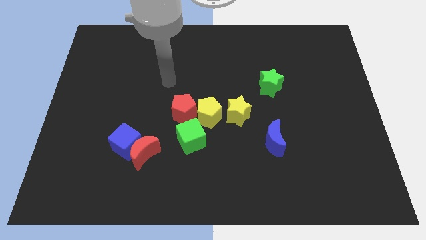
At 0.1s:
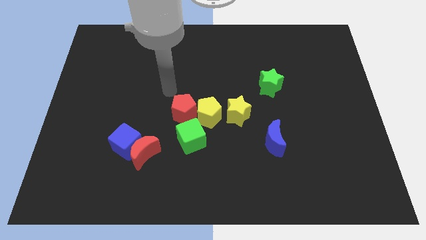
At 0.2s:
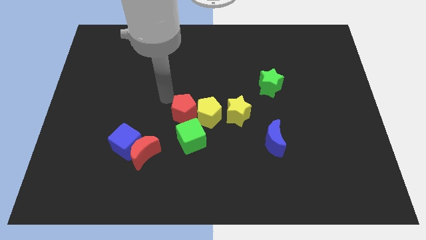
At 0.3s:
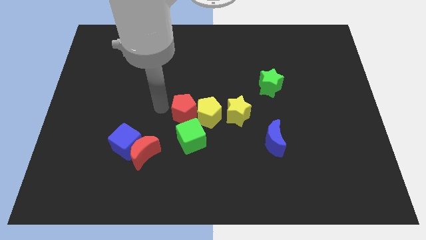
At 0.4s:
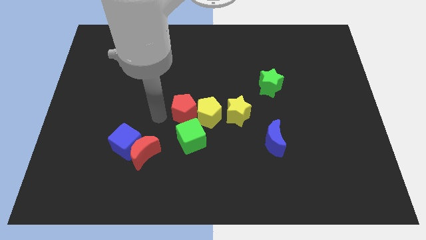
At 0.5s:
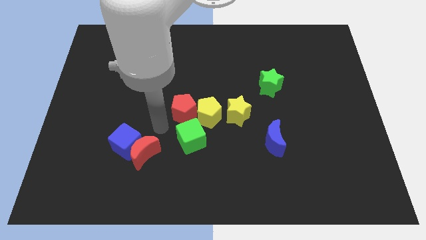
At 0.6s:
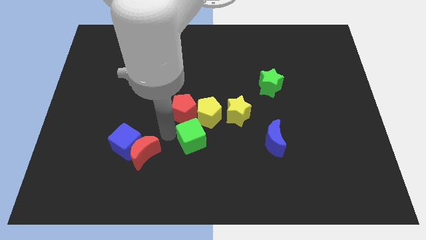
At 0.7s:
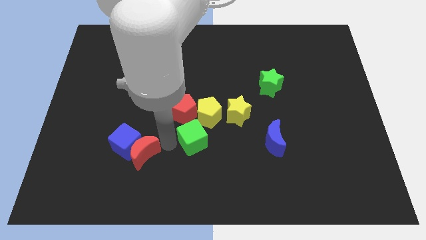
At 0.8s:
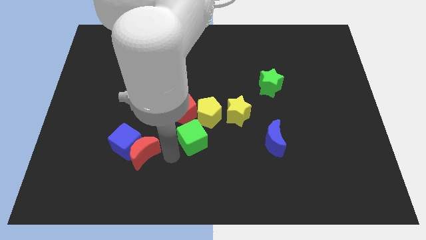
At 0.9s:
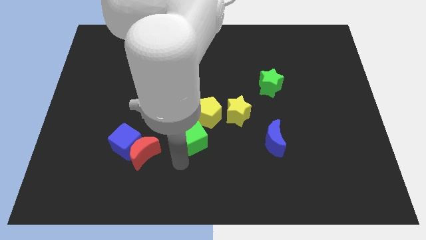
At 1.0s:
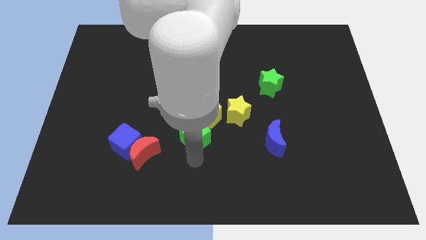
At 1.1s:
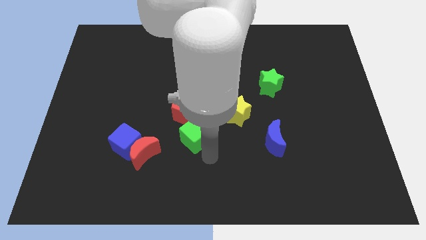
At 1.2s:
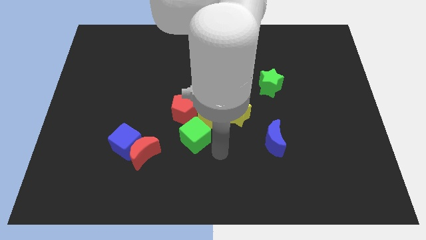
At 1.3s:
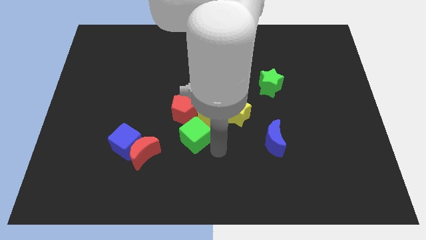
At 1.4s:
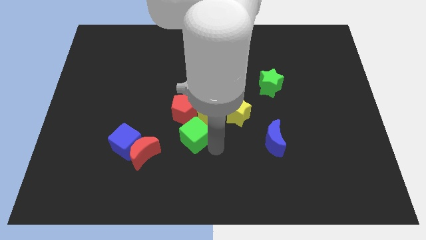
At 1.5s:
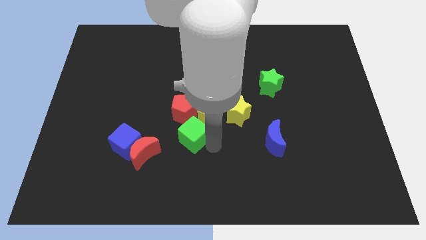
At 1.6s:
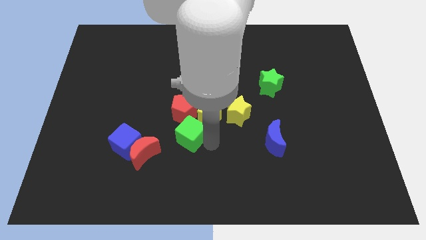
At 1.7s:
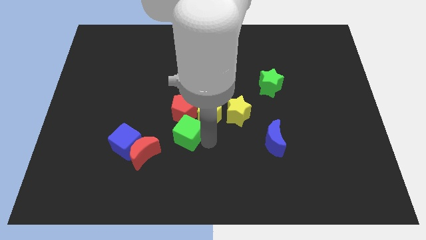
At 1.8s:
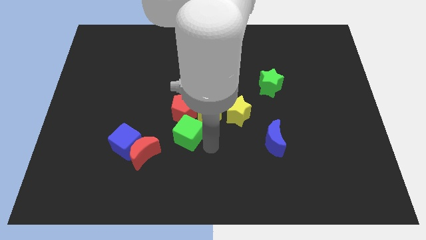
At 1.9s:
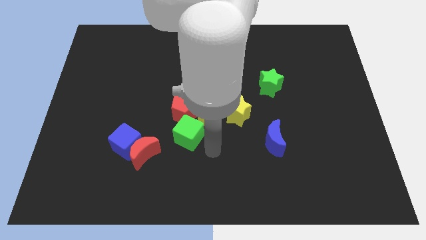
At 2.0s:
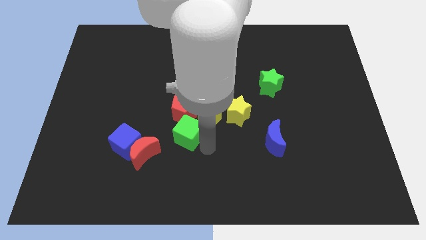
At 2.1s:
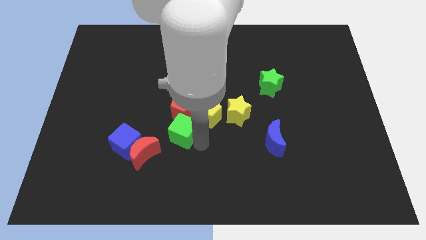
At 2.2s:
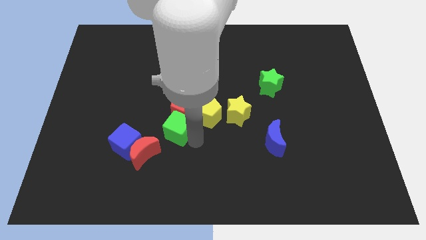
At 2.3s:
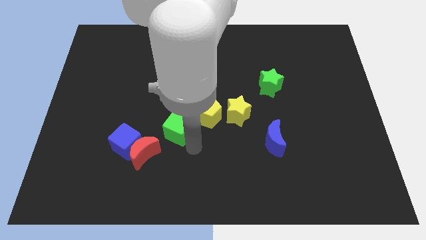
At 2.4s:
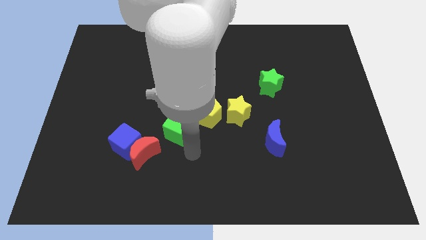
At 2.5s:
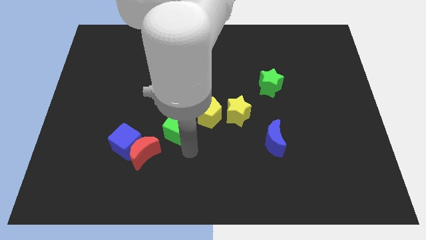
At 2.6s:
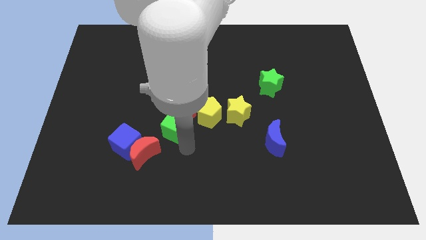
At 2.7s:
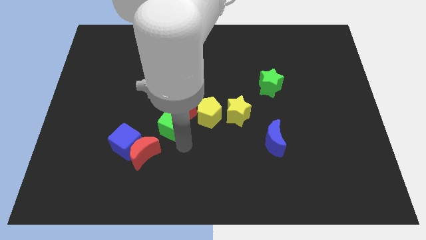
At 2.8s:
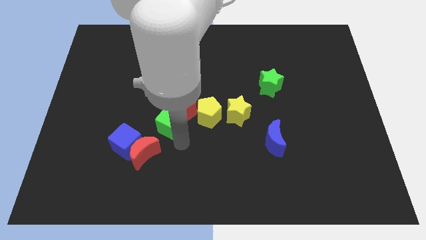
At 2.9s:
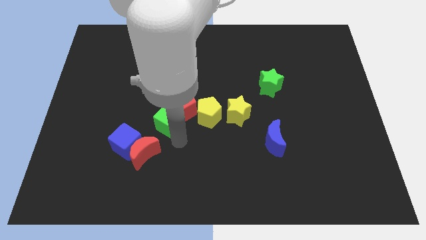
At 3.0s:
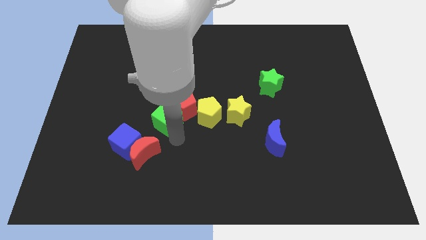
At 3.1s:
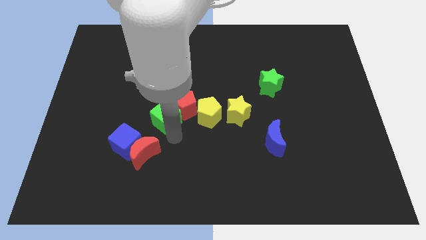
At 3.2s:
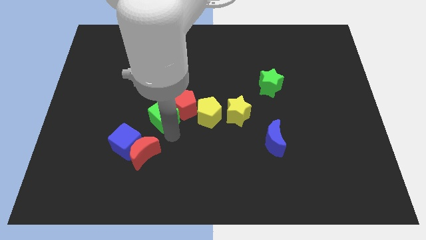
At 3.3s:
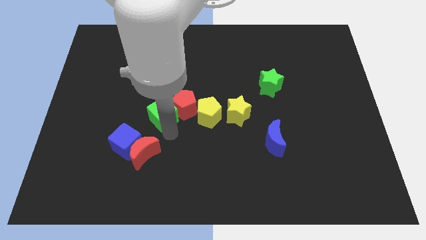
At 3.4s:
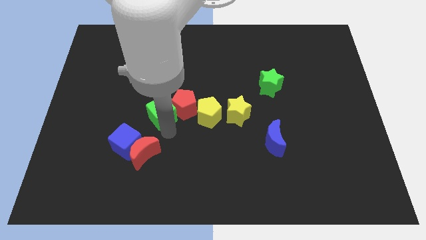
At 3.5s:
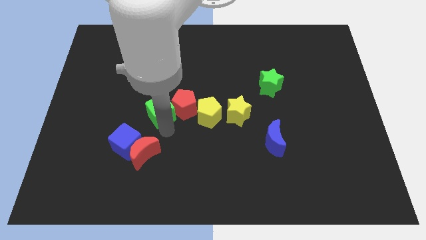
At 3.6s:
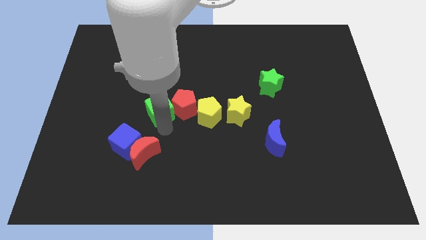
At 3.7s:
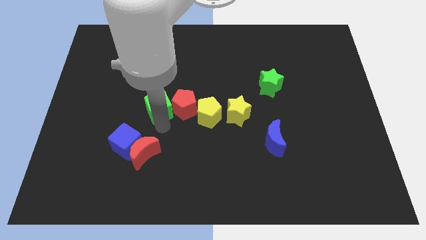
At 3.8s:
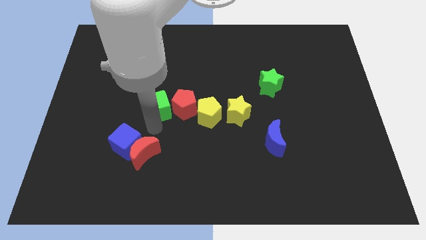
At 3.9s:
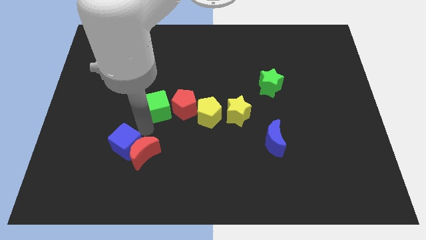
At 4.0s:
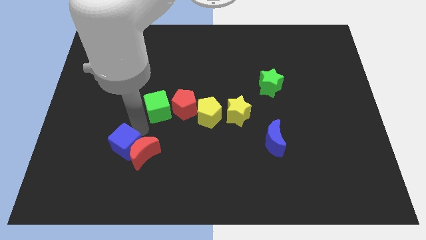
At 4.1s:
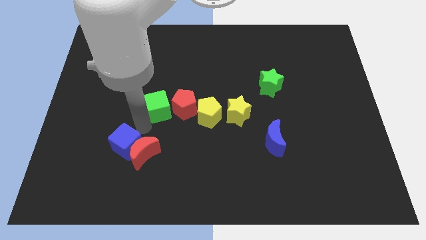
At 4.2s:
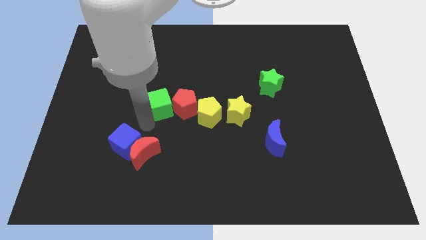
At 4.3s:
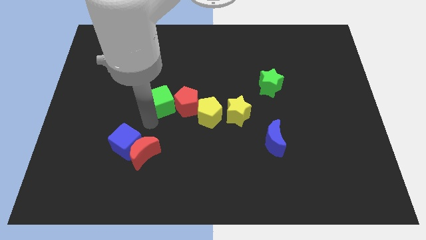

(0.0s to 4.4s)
move the green cube up somewhat

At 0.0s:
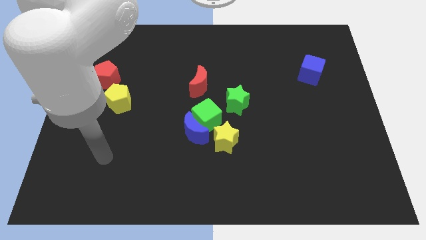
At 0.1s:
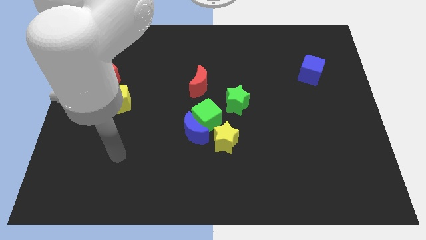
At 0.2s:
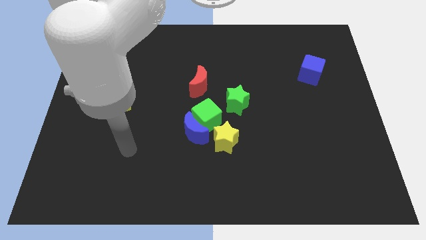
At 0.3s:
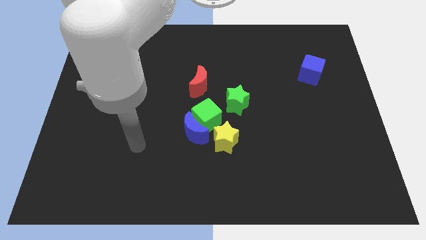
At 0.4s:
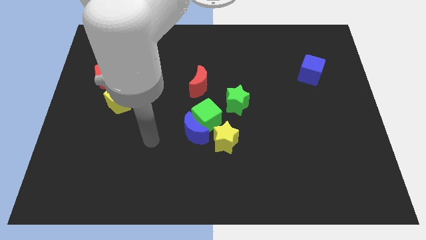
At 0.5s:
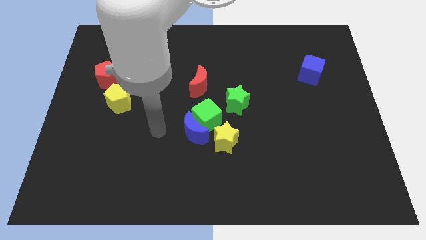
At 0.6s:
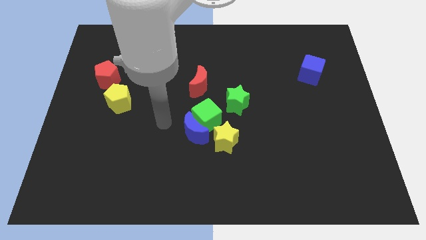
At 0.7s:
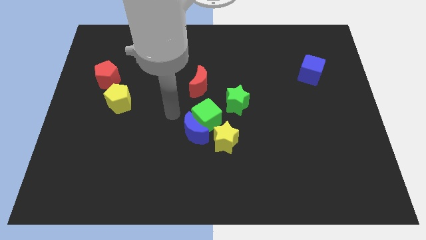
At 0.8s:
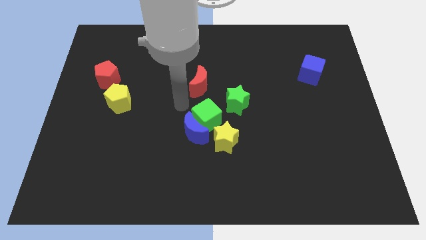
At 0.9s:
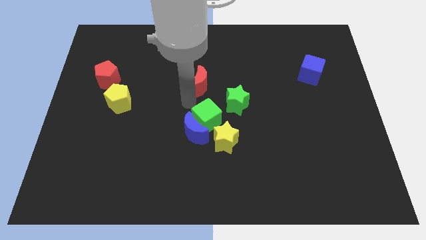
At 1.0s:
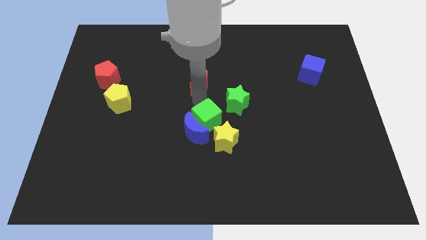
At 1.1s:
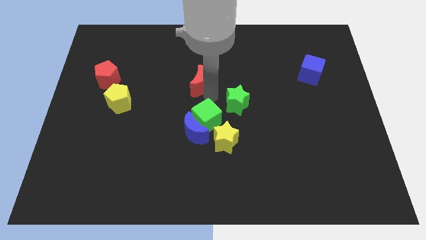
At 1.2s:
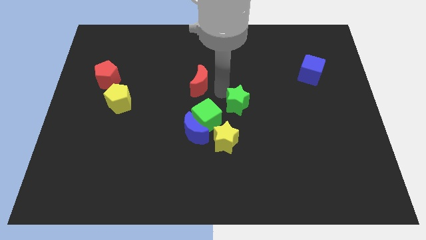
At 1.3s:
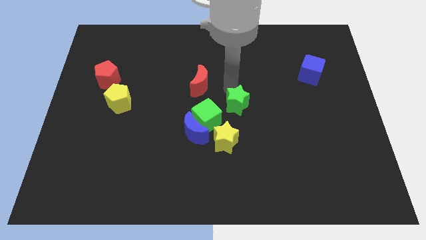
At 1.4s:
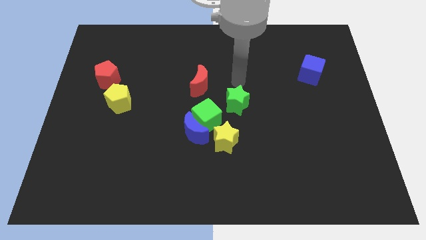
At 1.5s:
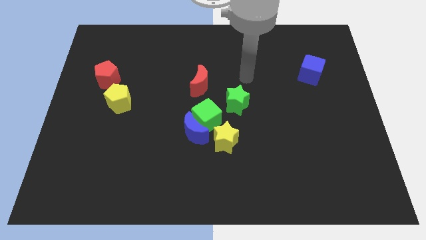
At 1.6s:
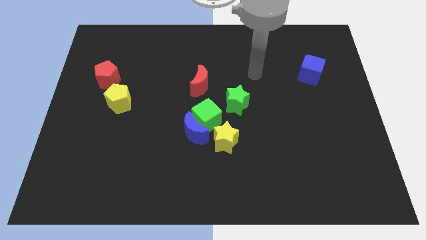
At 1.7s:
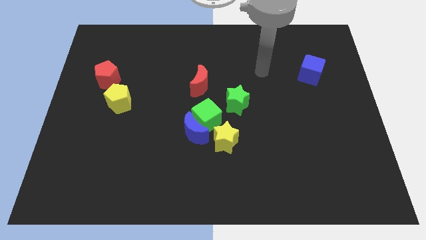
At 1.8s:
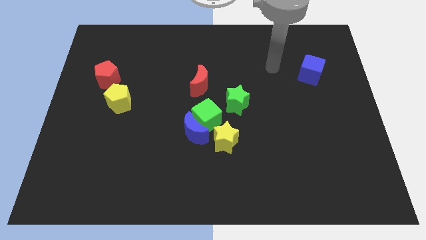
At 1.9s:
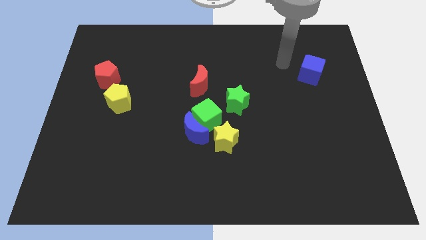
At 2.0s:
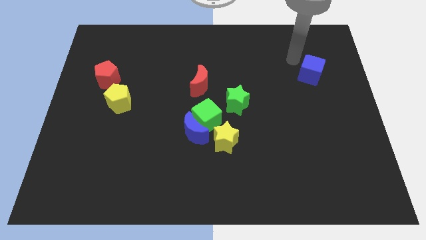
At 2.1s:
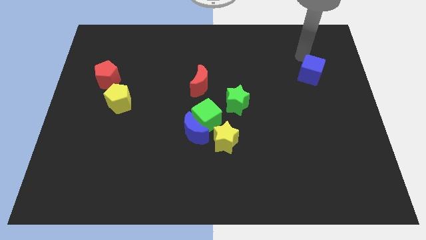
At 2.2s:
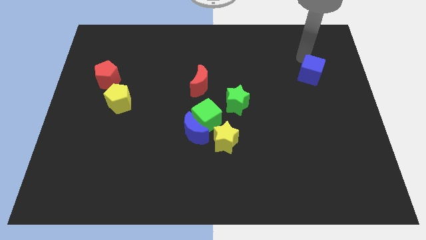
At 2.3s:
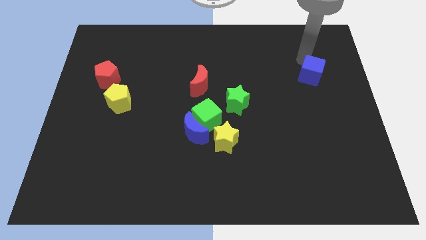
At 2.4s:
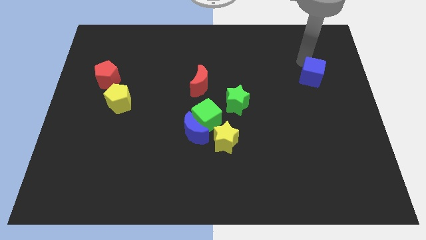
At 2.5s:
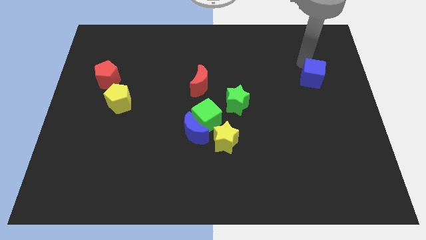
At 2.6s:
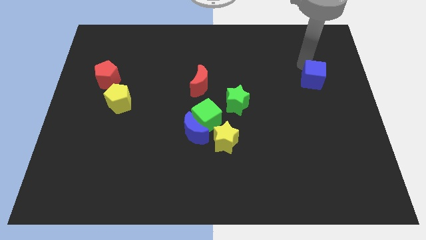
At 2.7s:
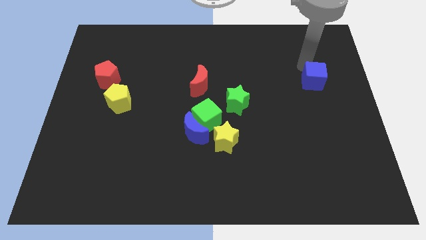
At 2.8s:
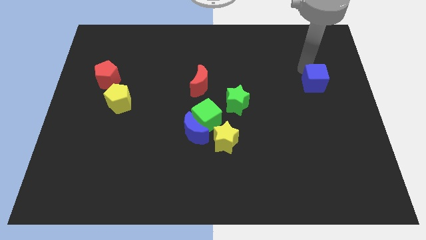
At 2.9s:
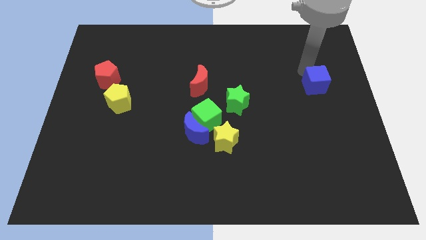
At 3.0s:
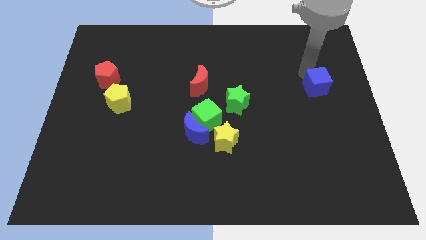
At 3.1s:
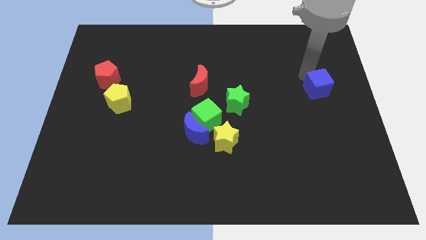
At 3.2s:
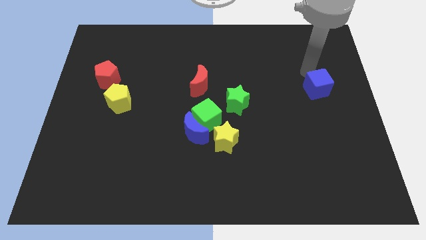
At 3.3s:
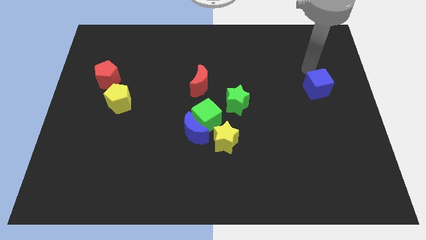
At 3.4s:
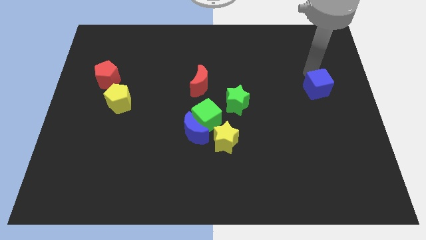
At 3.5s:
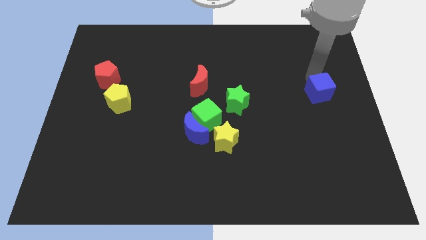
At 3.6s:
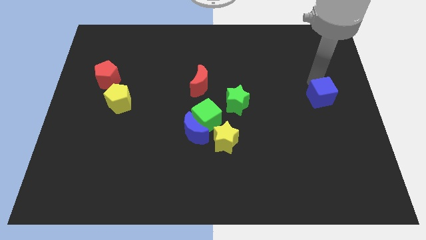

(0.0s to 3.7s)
slide the blue cube down slightly
